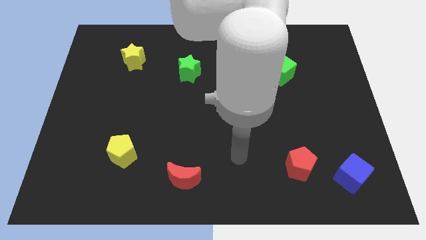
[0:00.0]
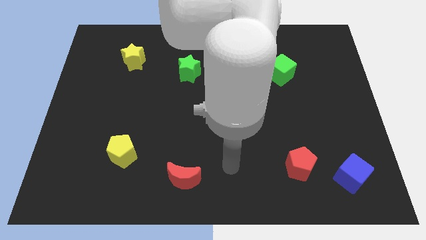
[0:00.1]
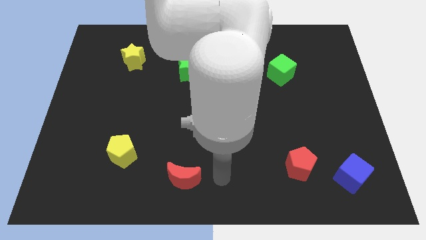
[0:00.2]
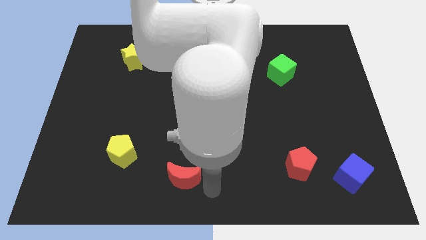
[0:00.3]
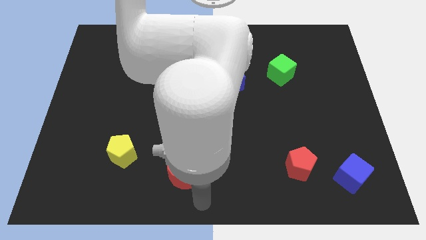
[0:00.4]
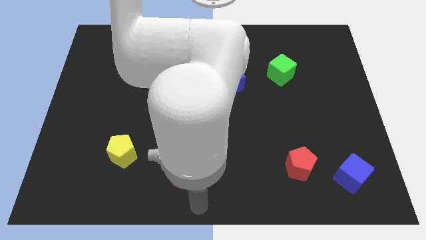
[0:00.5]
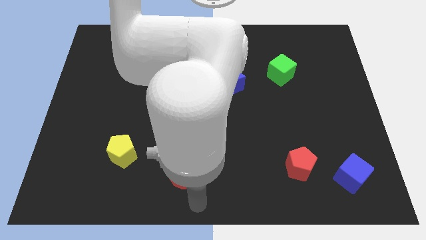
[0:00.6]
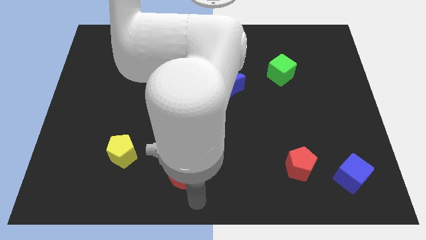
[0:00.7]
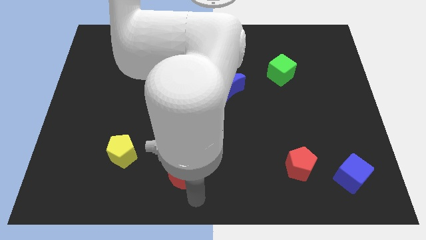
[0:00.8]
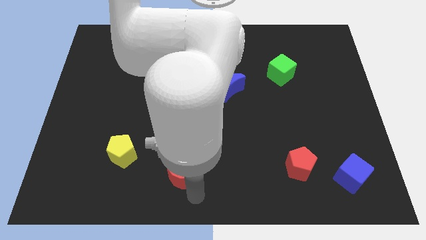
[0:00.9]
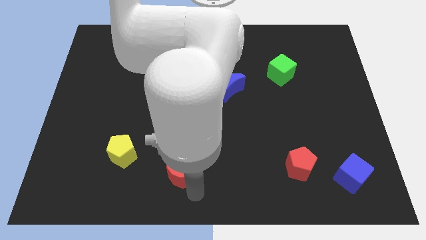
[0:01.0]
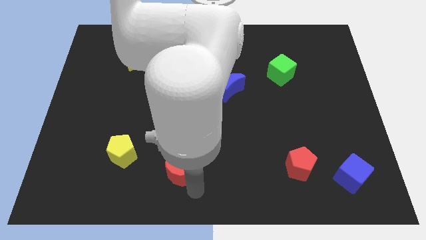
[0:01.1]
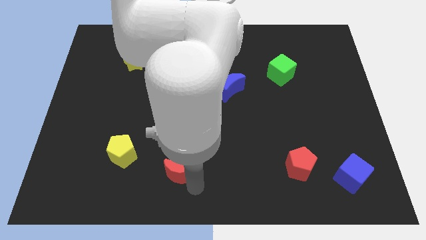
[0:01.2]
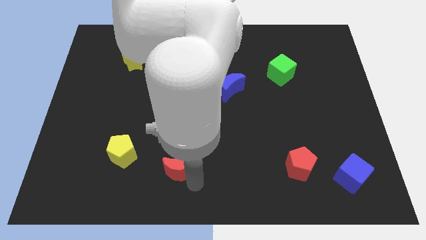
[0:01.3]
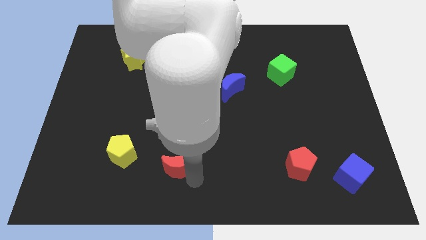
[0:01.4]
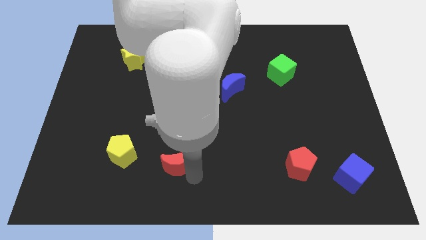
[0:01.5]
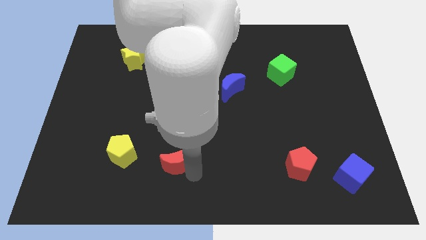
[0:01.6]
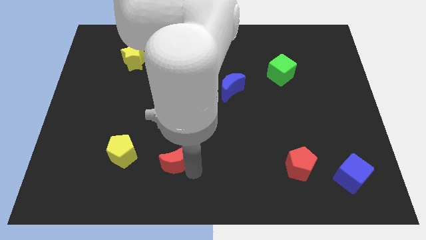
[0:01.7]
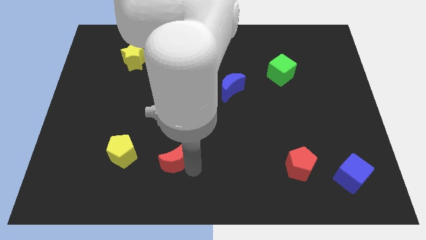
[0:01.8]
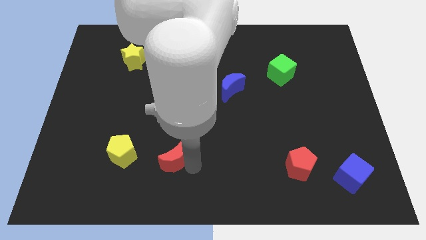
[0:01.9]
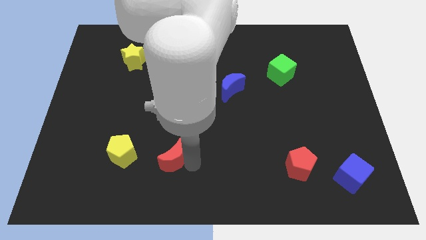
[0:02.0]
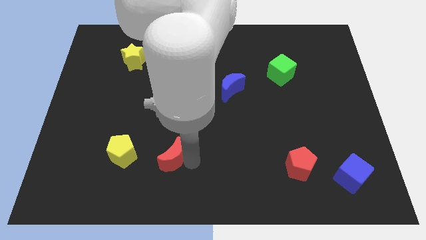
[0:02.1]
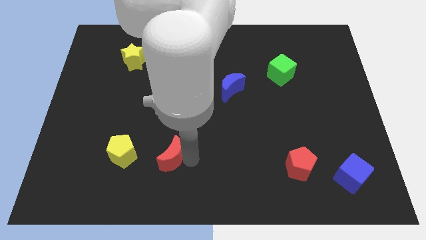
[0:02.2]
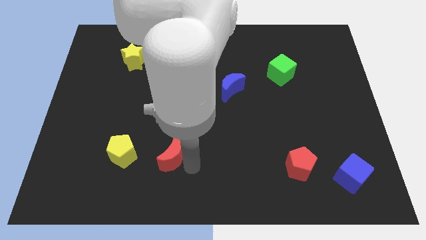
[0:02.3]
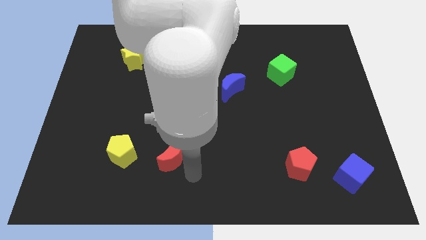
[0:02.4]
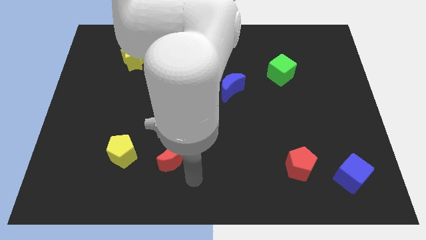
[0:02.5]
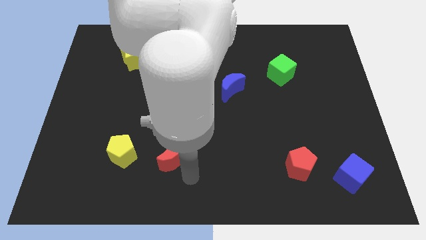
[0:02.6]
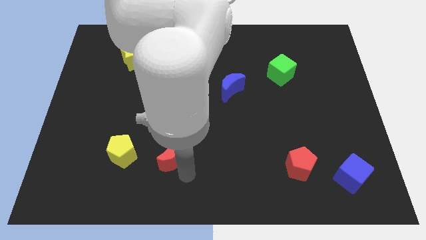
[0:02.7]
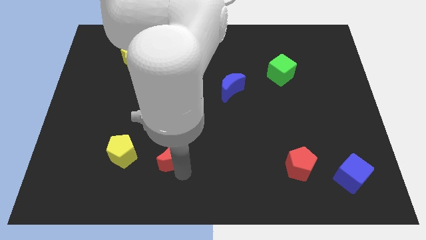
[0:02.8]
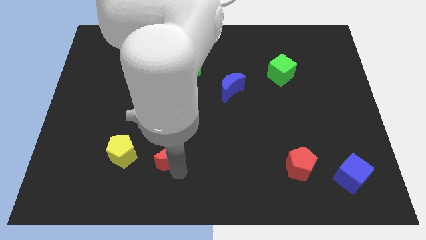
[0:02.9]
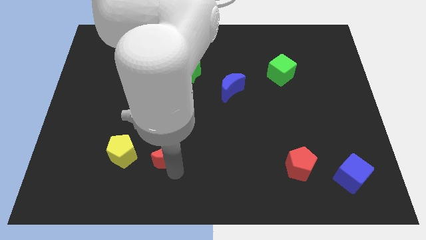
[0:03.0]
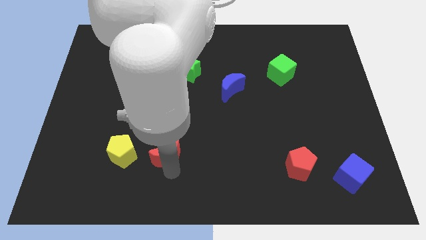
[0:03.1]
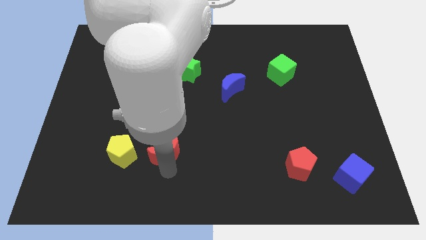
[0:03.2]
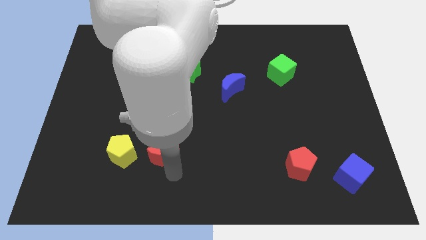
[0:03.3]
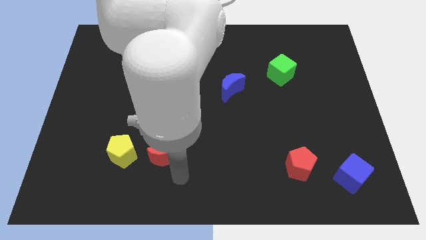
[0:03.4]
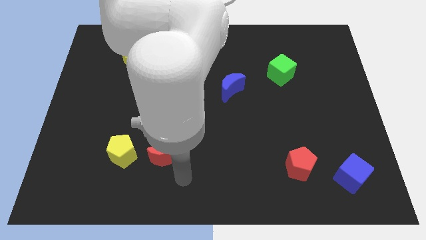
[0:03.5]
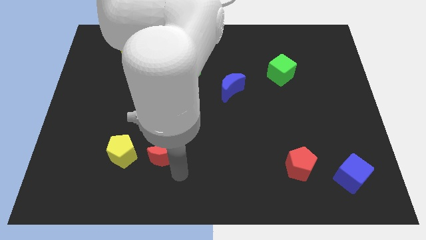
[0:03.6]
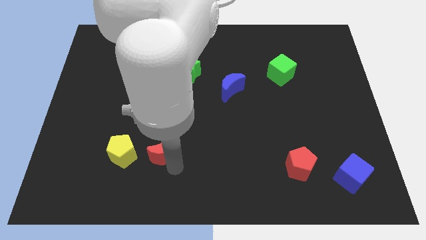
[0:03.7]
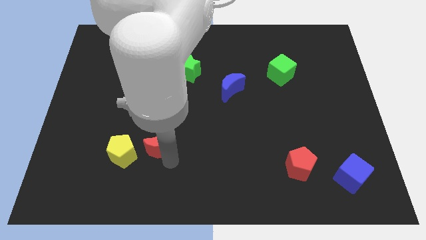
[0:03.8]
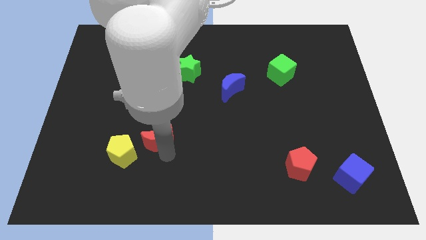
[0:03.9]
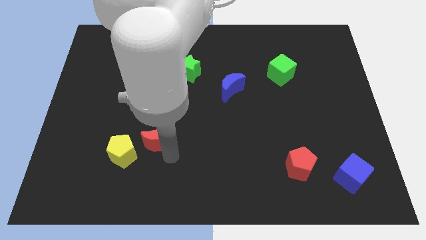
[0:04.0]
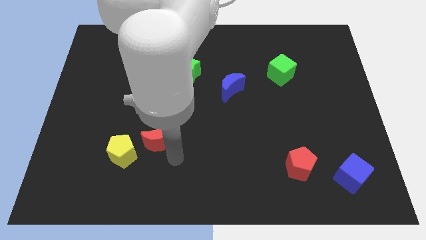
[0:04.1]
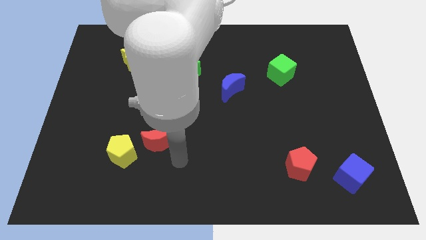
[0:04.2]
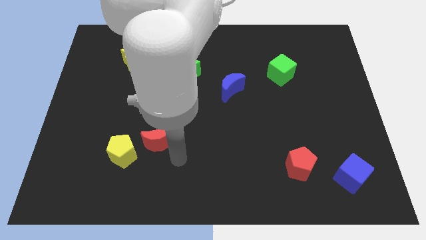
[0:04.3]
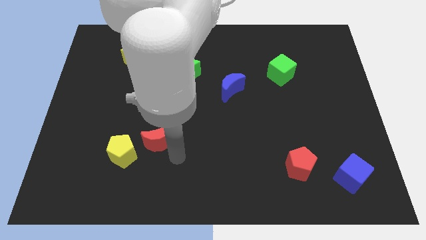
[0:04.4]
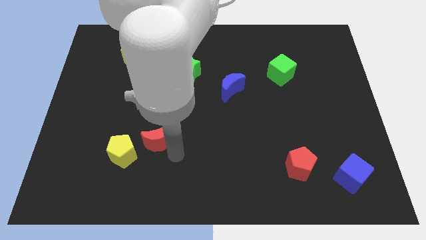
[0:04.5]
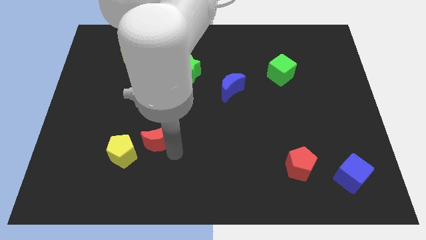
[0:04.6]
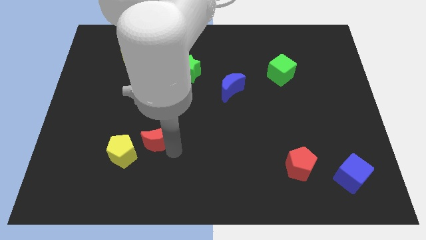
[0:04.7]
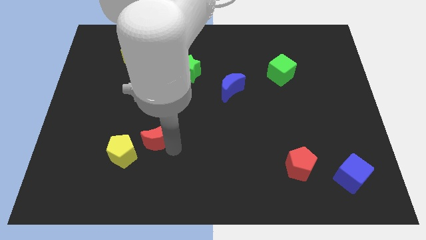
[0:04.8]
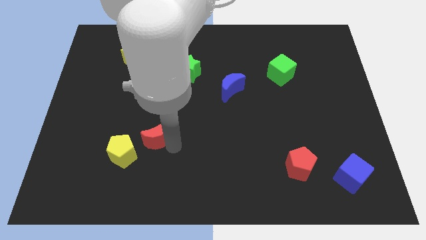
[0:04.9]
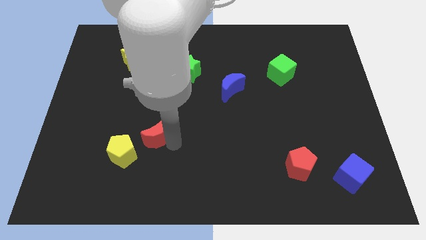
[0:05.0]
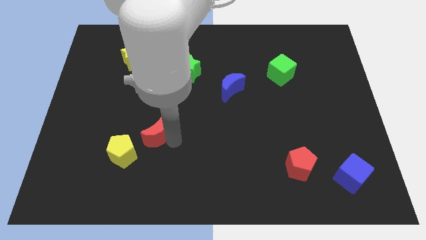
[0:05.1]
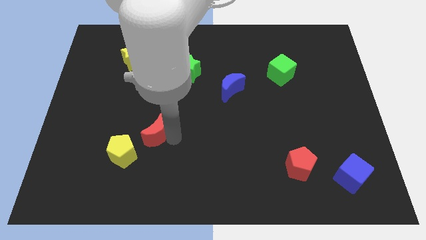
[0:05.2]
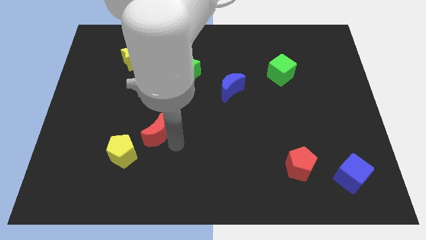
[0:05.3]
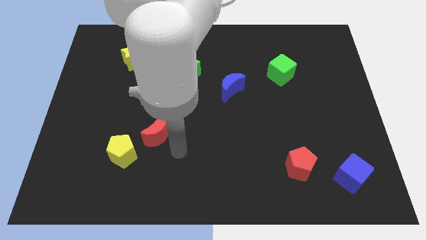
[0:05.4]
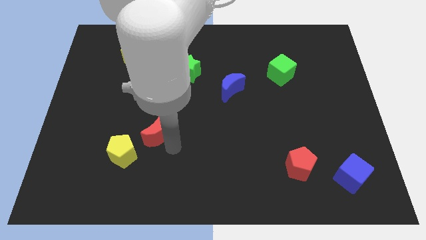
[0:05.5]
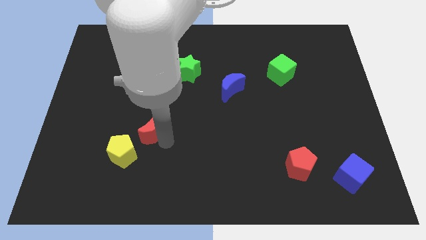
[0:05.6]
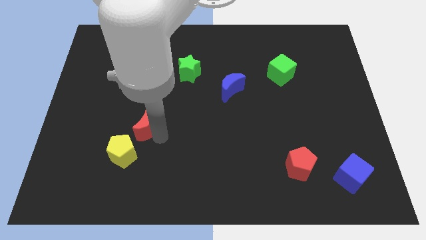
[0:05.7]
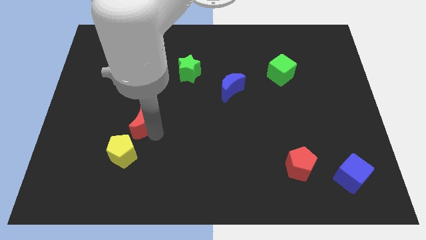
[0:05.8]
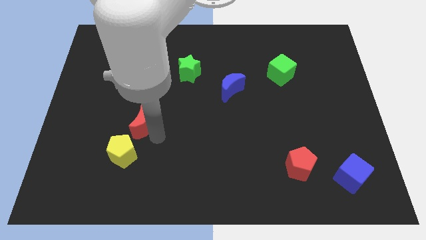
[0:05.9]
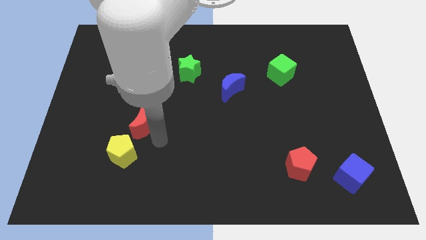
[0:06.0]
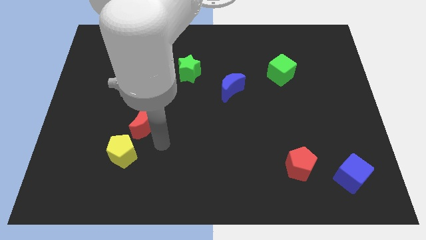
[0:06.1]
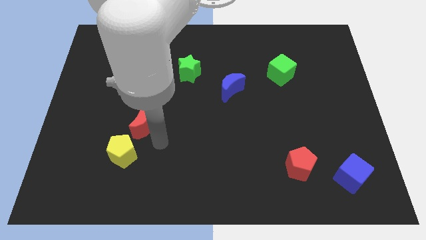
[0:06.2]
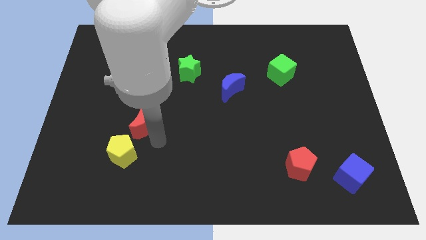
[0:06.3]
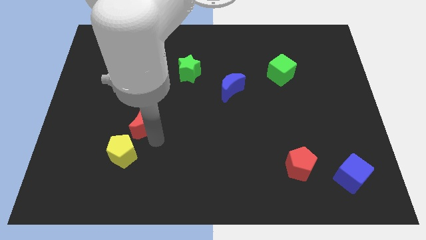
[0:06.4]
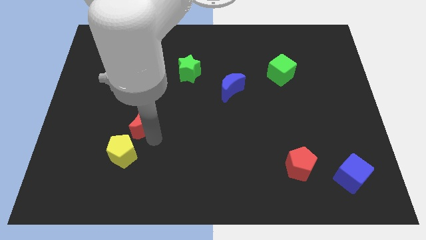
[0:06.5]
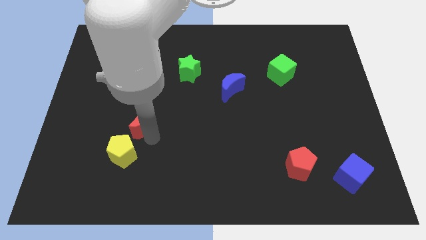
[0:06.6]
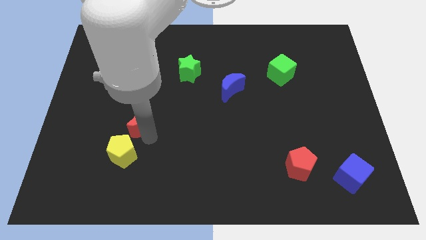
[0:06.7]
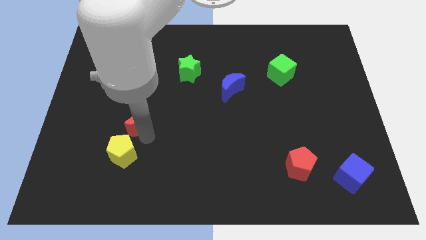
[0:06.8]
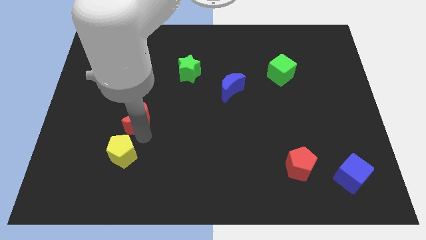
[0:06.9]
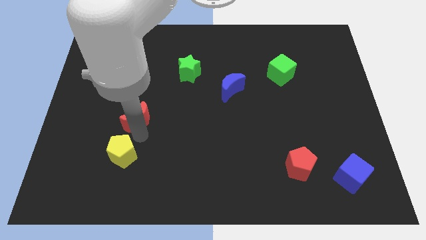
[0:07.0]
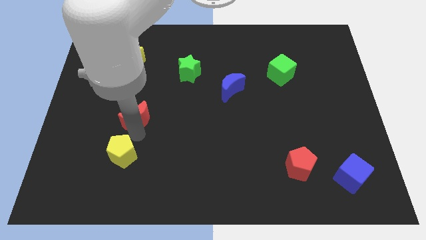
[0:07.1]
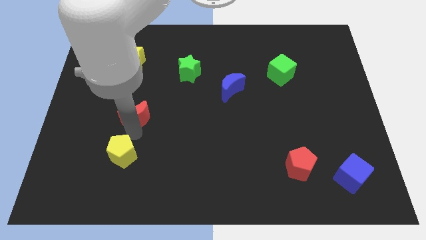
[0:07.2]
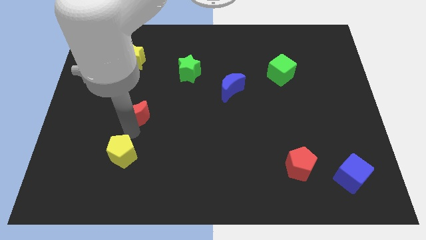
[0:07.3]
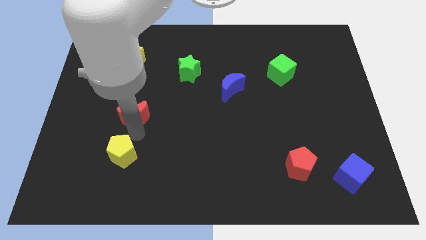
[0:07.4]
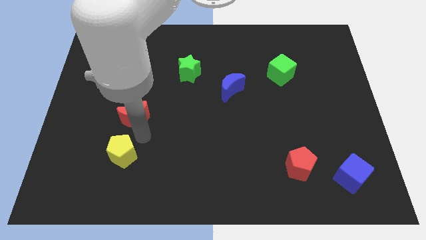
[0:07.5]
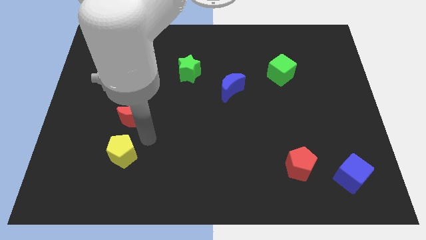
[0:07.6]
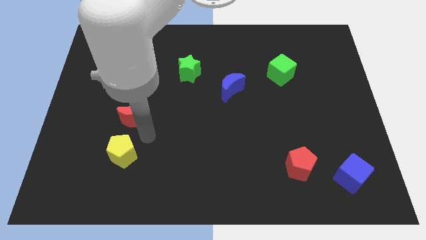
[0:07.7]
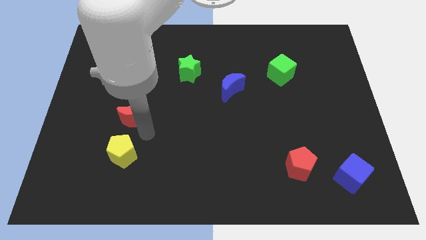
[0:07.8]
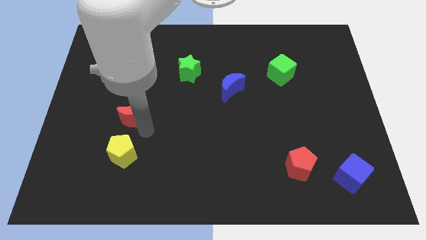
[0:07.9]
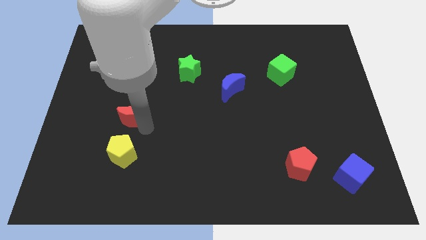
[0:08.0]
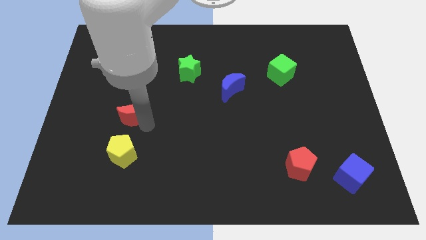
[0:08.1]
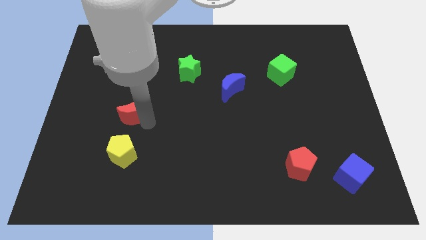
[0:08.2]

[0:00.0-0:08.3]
push the red moon upwards and to the left diagonally
